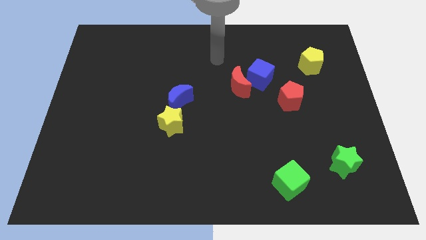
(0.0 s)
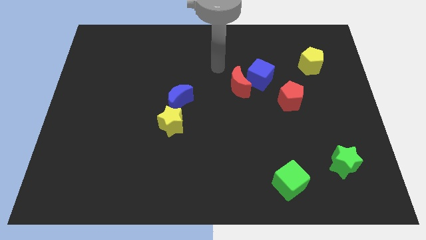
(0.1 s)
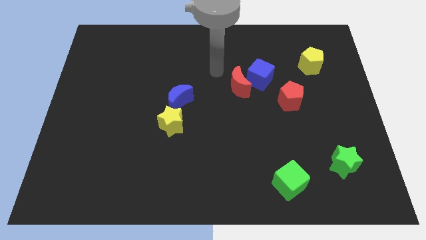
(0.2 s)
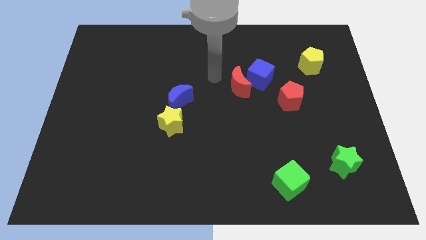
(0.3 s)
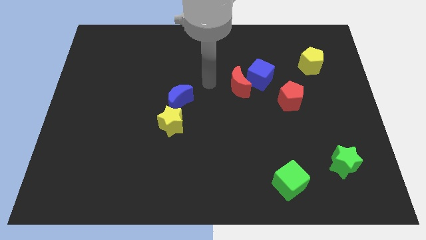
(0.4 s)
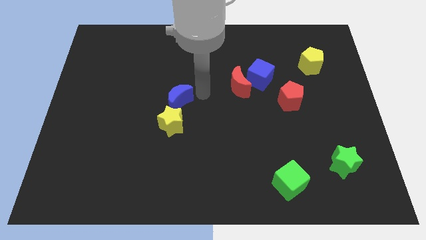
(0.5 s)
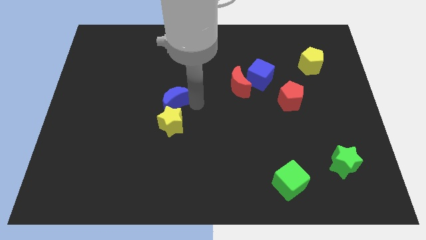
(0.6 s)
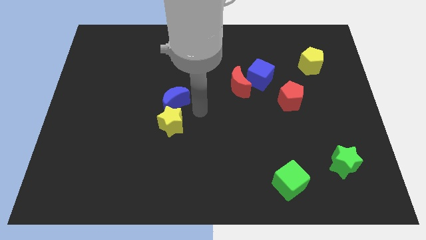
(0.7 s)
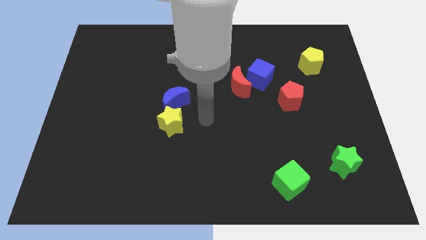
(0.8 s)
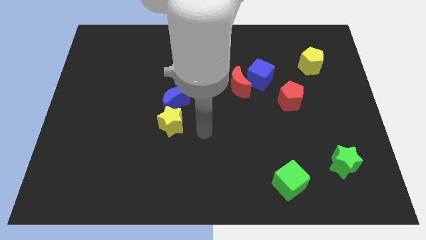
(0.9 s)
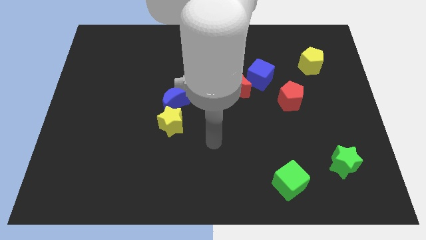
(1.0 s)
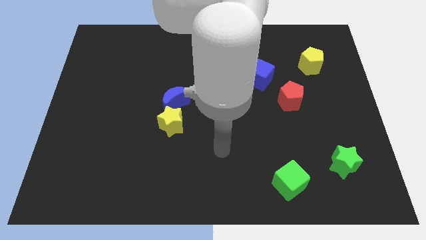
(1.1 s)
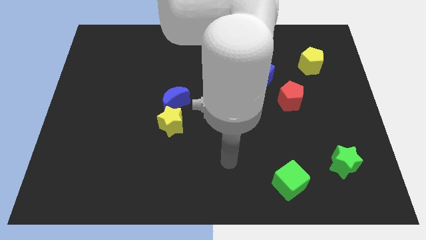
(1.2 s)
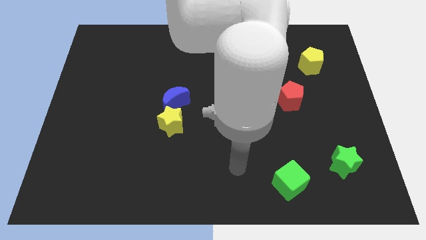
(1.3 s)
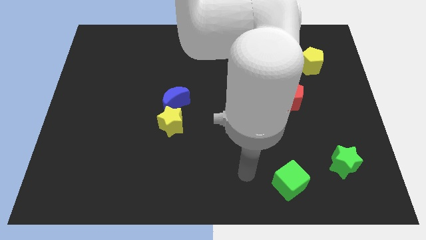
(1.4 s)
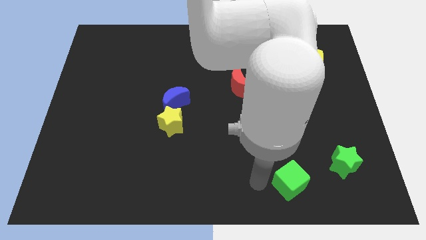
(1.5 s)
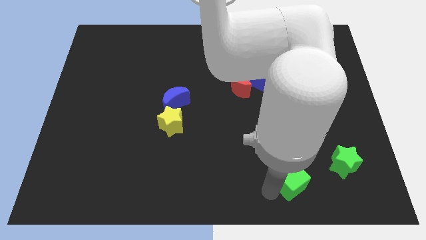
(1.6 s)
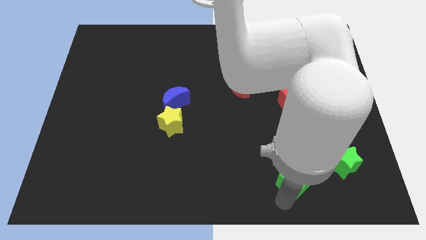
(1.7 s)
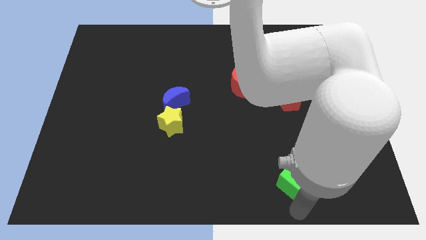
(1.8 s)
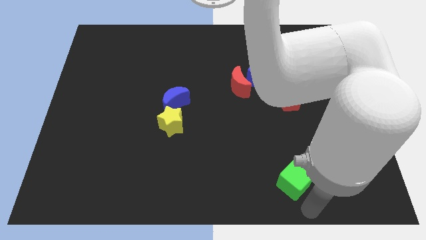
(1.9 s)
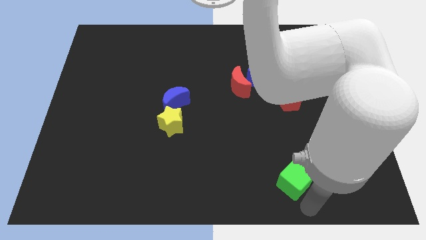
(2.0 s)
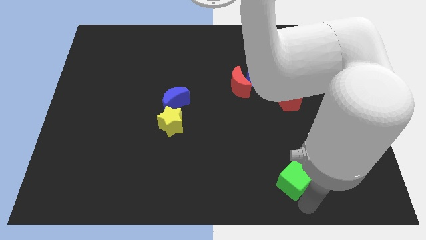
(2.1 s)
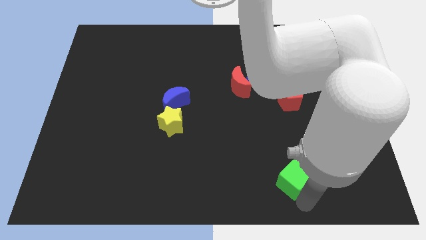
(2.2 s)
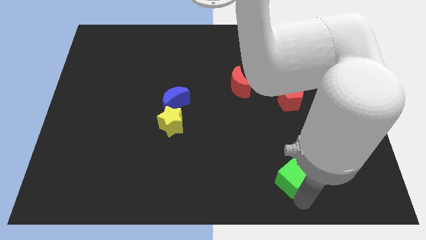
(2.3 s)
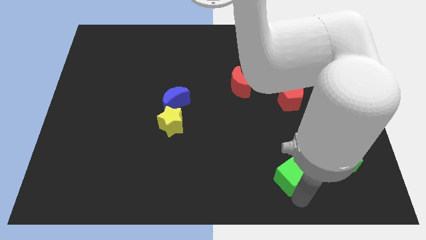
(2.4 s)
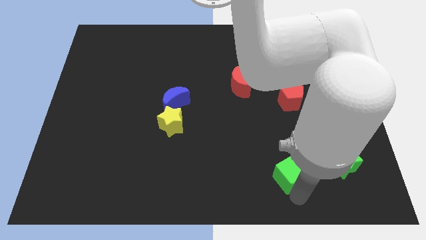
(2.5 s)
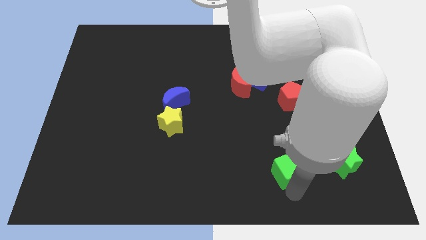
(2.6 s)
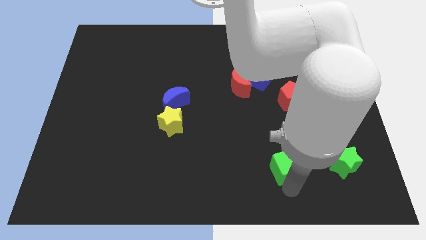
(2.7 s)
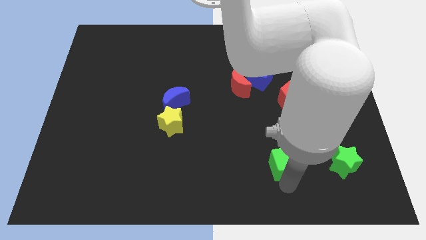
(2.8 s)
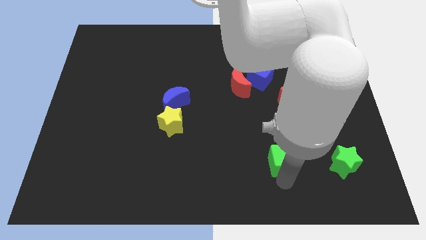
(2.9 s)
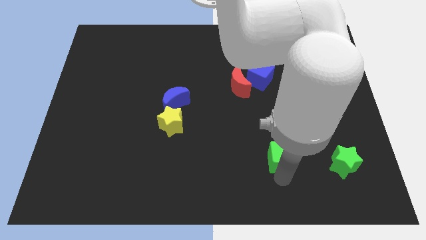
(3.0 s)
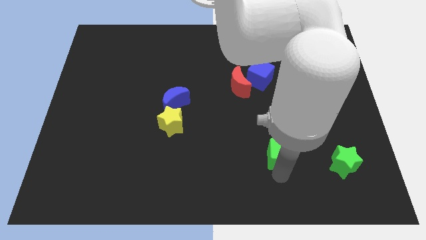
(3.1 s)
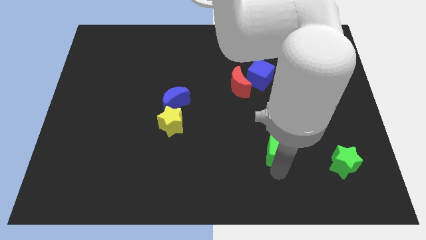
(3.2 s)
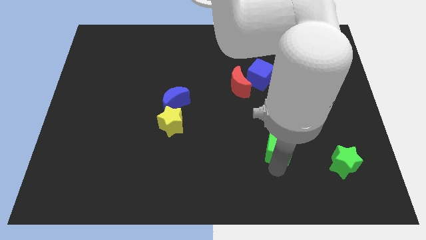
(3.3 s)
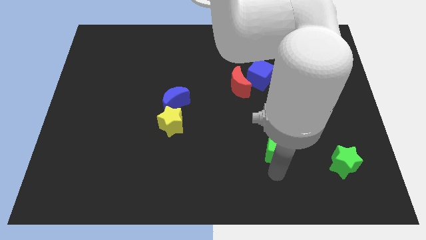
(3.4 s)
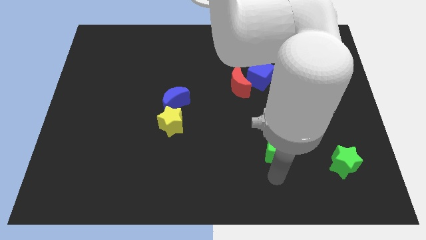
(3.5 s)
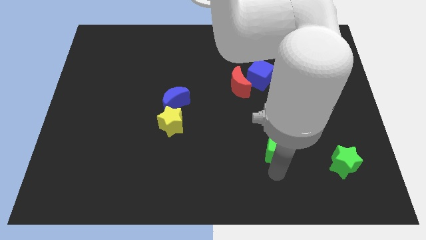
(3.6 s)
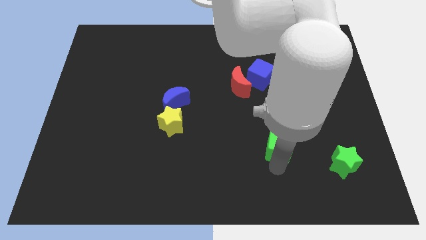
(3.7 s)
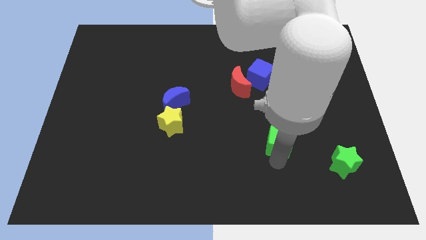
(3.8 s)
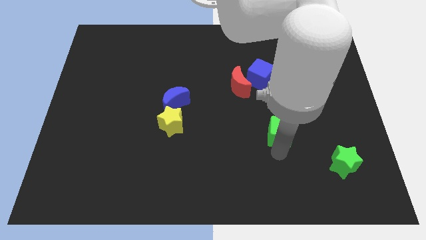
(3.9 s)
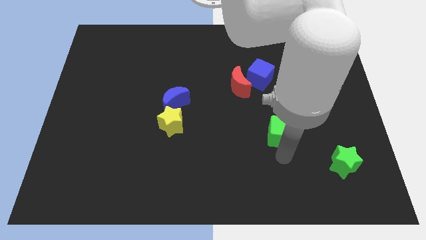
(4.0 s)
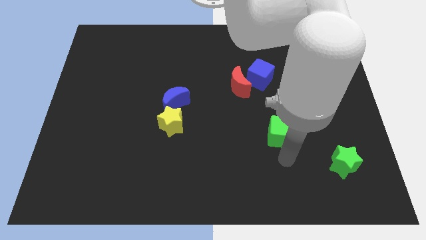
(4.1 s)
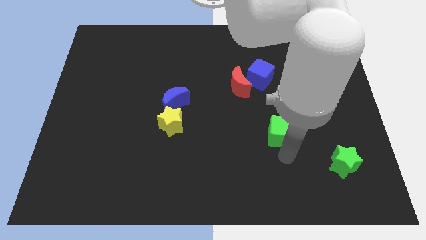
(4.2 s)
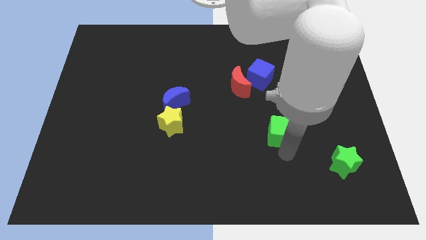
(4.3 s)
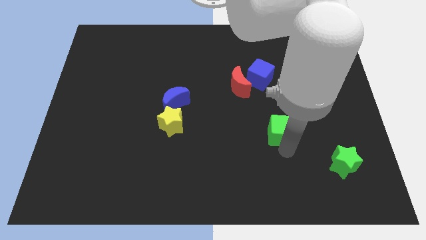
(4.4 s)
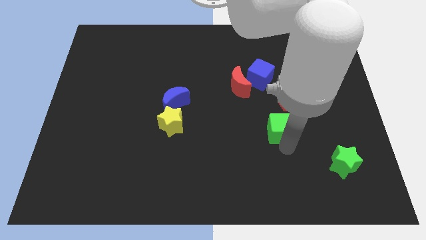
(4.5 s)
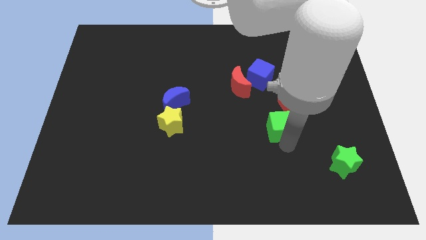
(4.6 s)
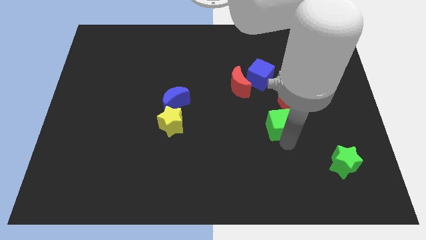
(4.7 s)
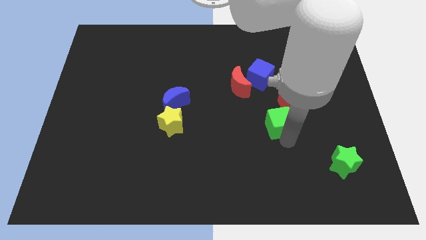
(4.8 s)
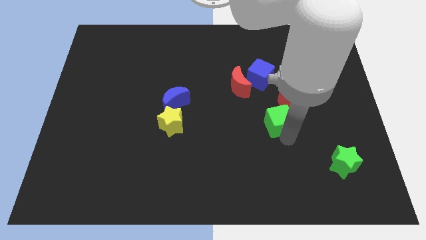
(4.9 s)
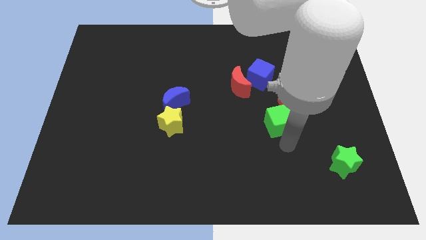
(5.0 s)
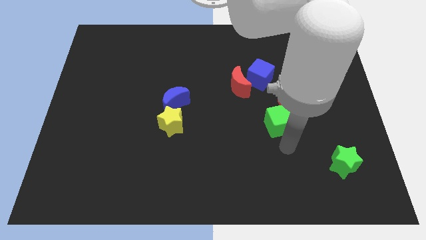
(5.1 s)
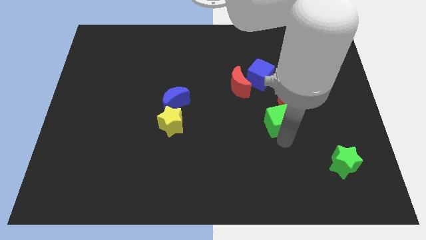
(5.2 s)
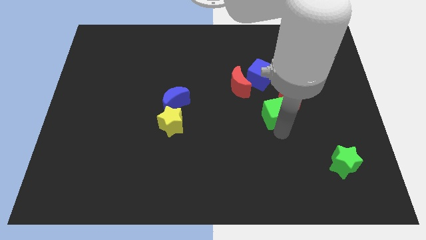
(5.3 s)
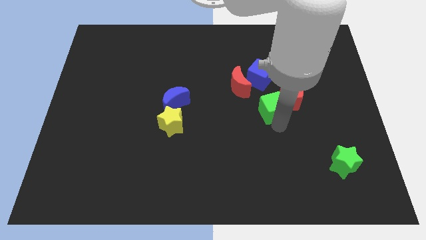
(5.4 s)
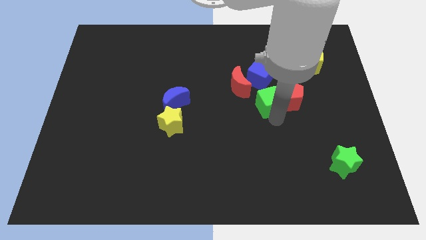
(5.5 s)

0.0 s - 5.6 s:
slide the green cube up

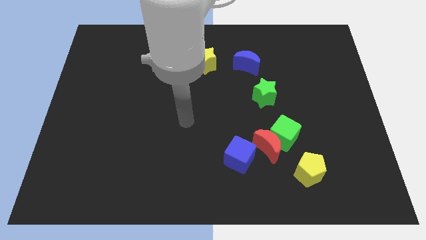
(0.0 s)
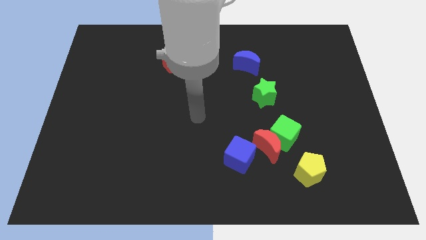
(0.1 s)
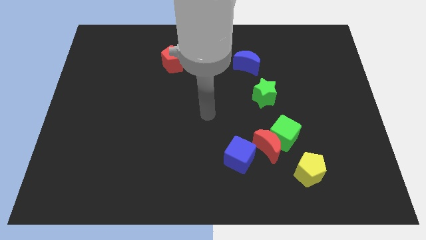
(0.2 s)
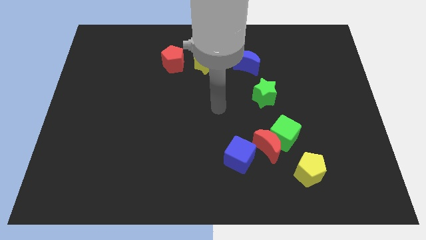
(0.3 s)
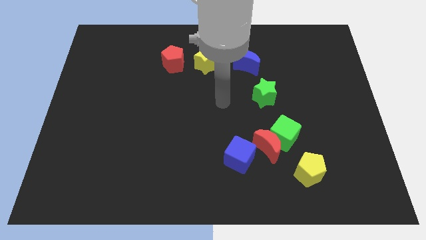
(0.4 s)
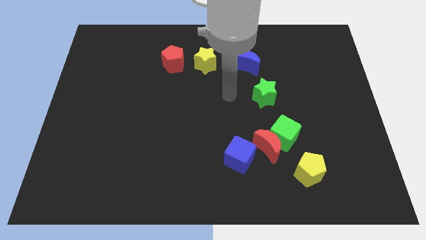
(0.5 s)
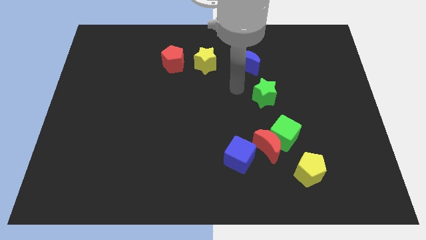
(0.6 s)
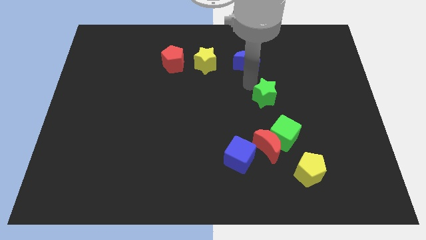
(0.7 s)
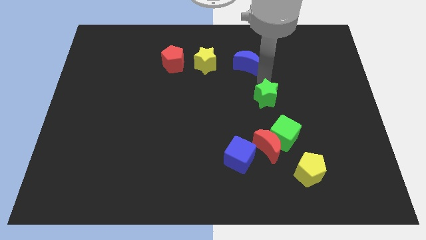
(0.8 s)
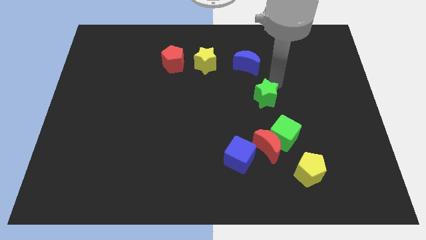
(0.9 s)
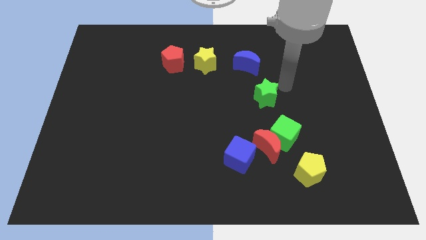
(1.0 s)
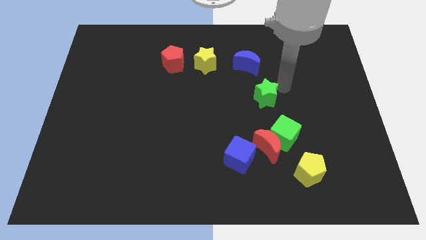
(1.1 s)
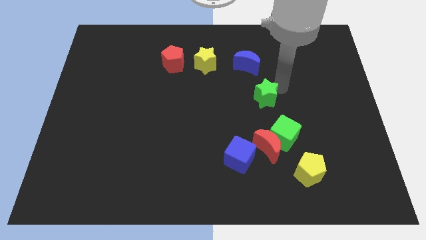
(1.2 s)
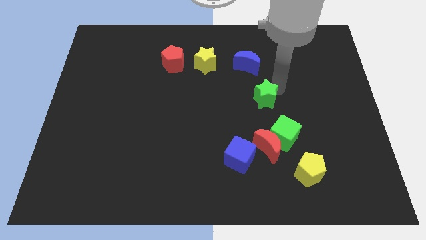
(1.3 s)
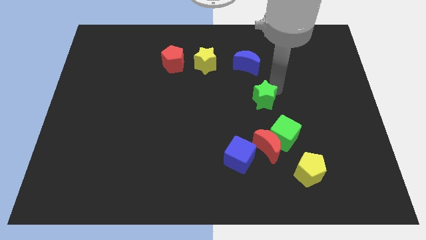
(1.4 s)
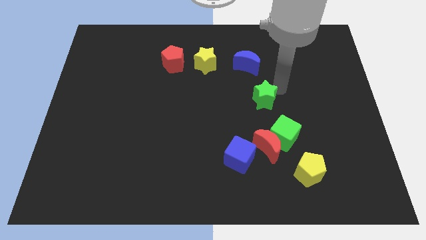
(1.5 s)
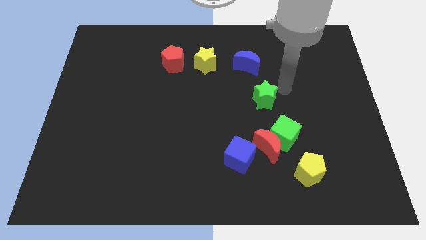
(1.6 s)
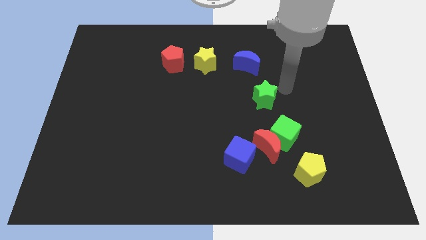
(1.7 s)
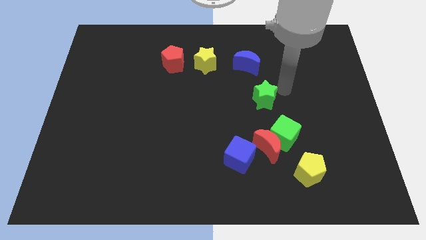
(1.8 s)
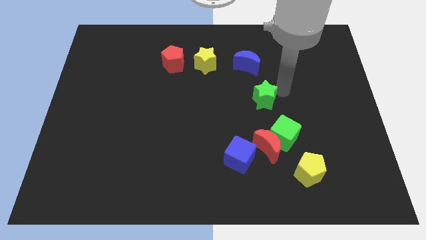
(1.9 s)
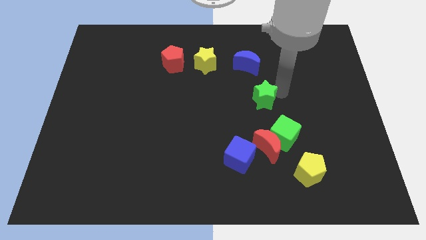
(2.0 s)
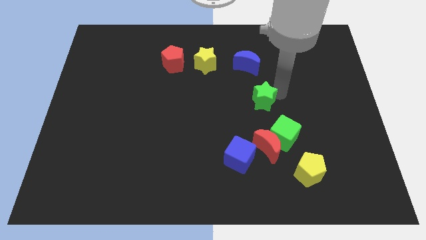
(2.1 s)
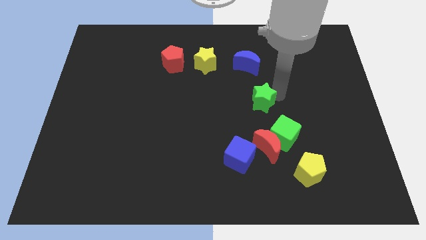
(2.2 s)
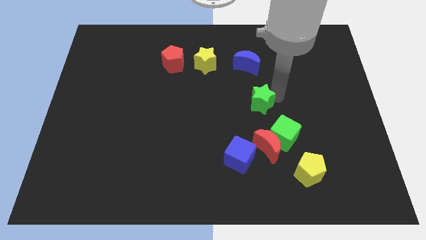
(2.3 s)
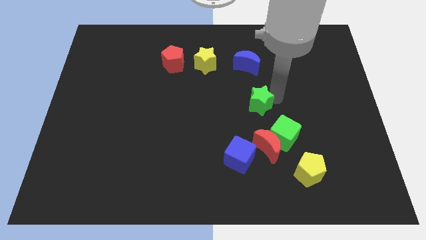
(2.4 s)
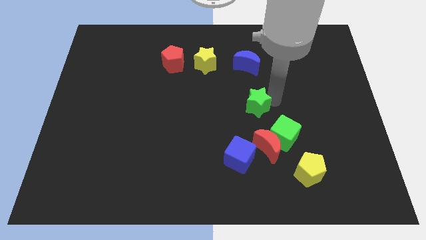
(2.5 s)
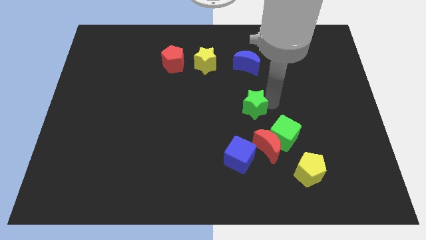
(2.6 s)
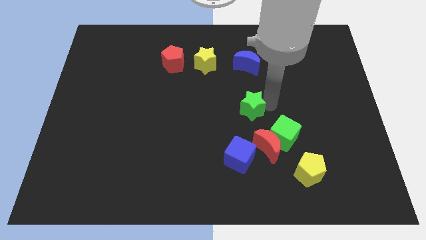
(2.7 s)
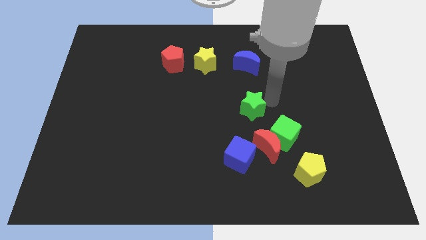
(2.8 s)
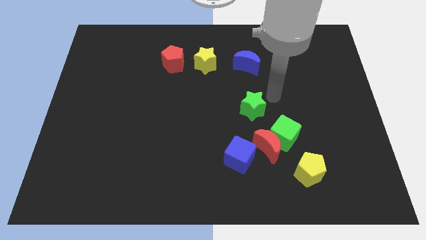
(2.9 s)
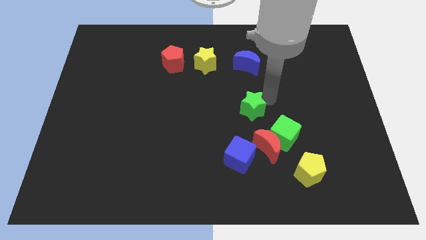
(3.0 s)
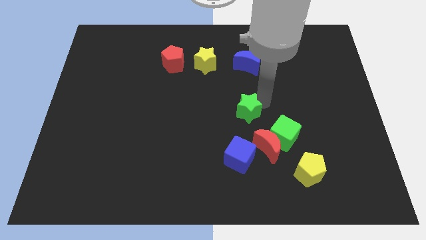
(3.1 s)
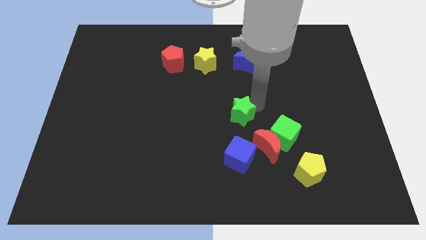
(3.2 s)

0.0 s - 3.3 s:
move the green star a bit down and left
